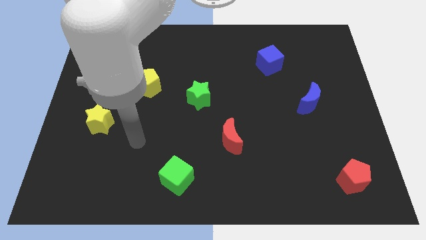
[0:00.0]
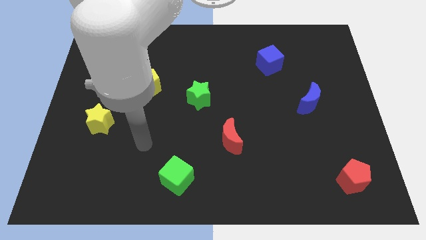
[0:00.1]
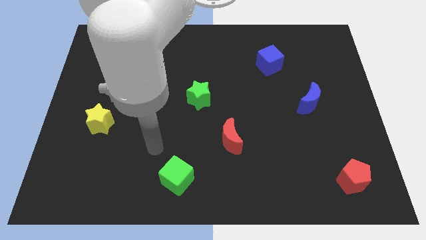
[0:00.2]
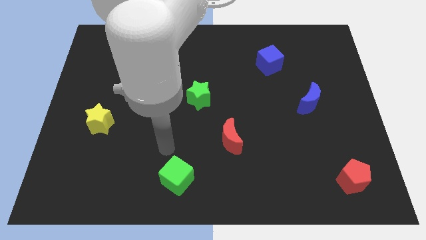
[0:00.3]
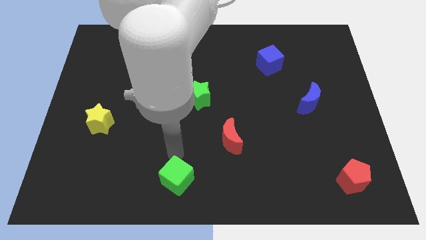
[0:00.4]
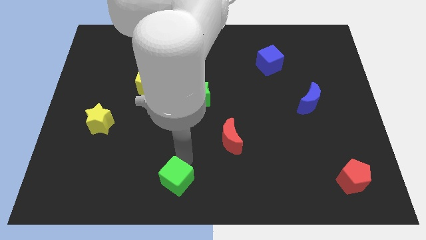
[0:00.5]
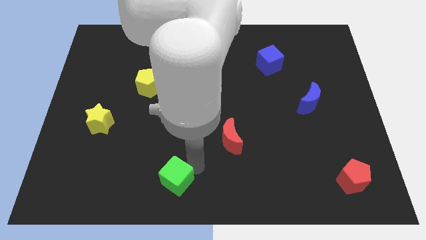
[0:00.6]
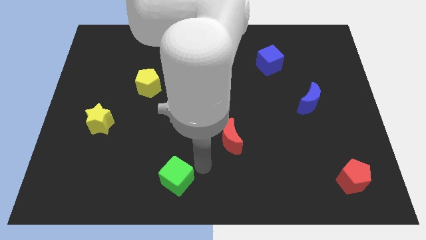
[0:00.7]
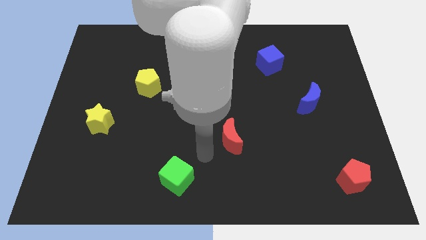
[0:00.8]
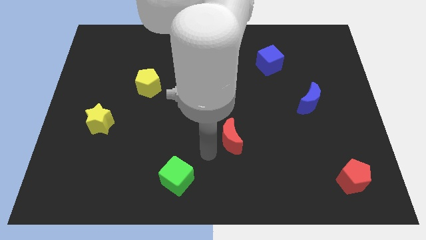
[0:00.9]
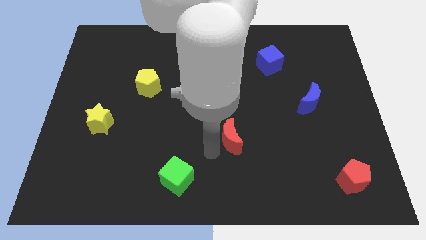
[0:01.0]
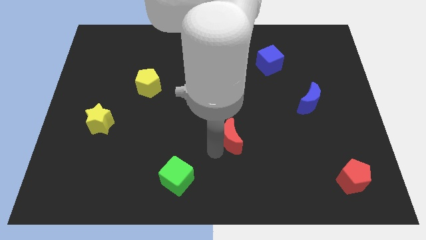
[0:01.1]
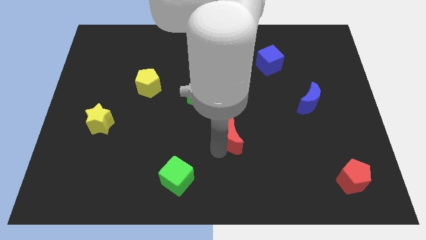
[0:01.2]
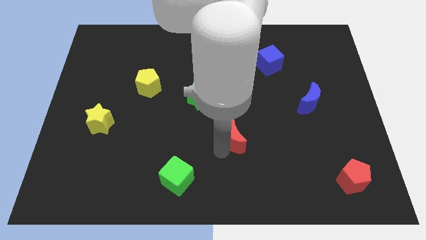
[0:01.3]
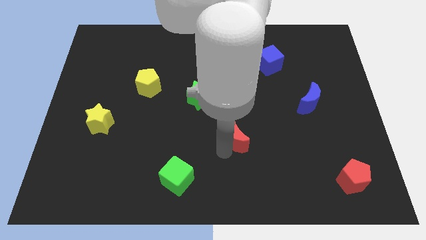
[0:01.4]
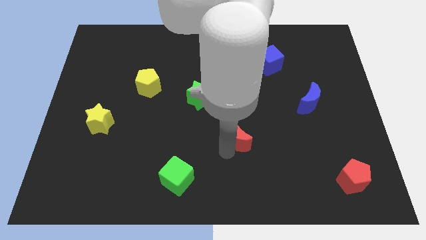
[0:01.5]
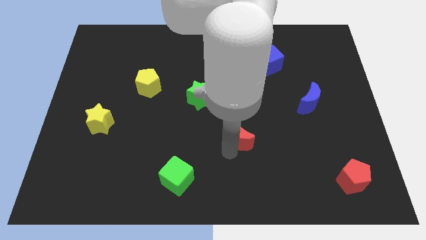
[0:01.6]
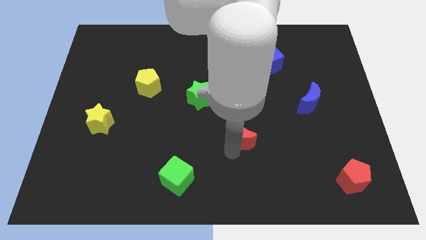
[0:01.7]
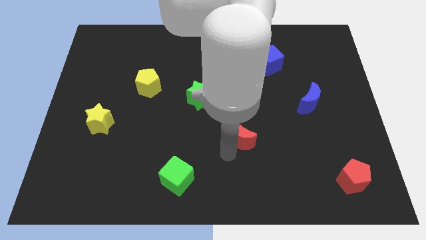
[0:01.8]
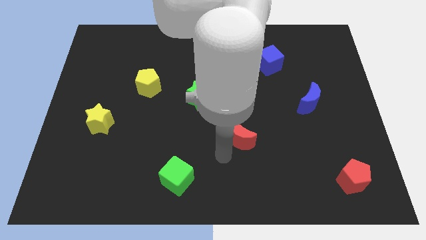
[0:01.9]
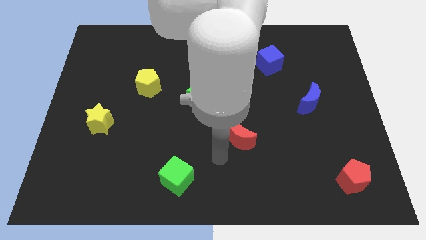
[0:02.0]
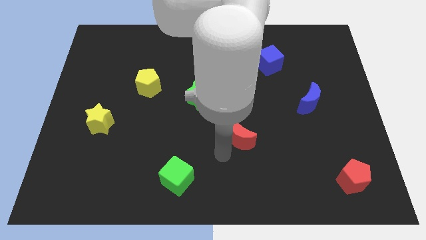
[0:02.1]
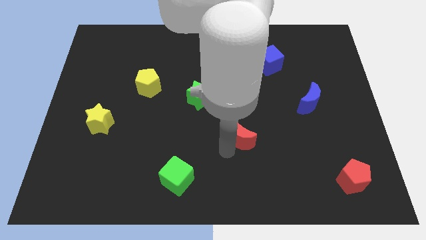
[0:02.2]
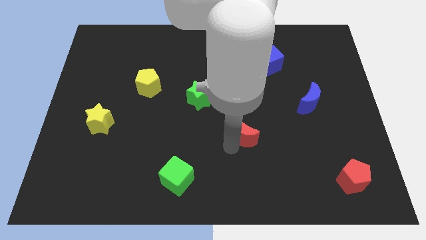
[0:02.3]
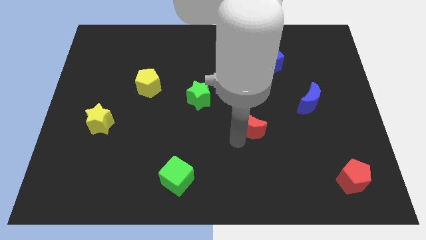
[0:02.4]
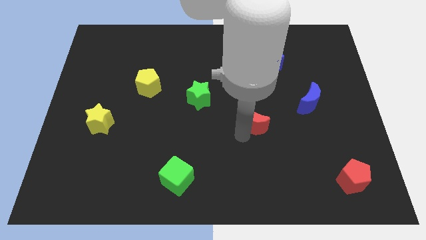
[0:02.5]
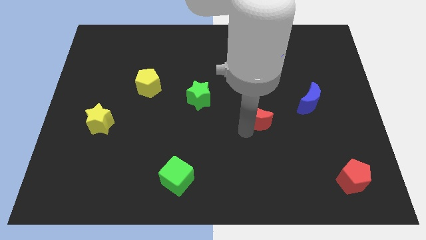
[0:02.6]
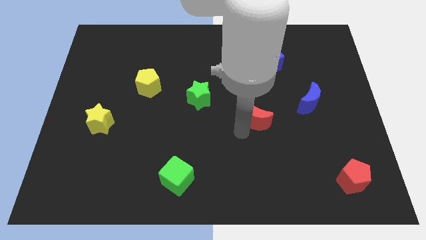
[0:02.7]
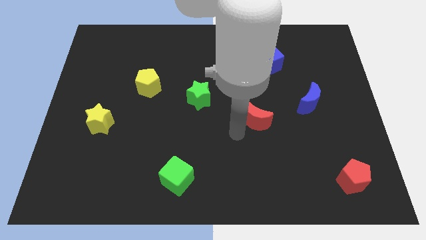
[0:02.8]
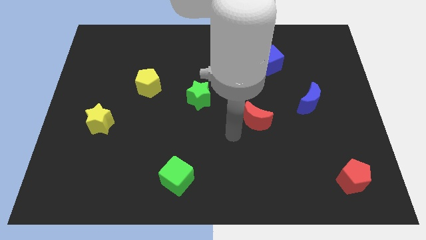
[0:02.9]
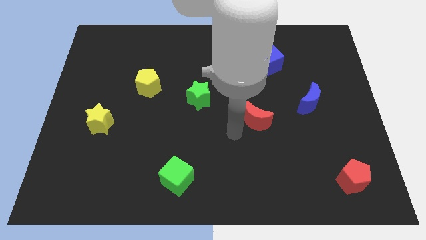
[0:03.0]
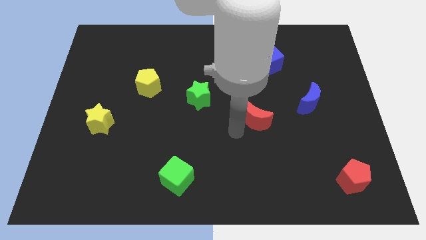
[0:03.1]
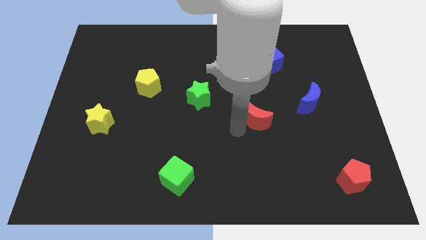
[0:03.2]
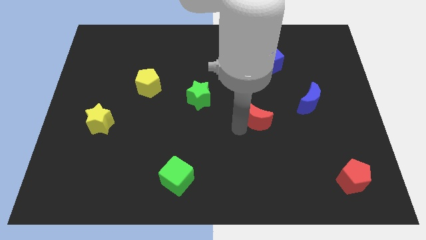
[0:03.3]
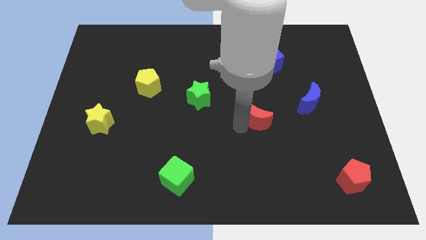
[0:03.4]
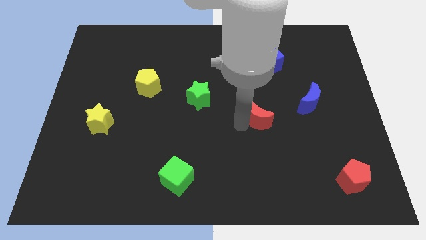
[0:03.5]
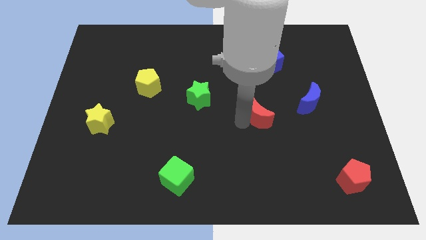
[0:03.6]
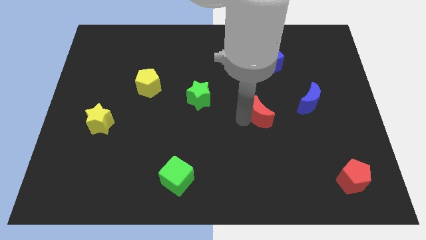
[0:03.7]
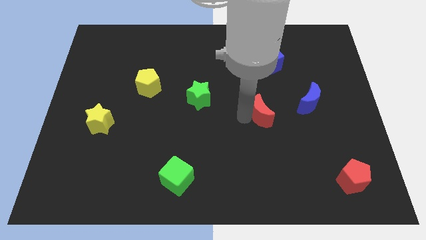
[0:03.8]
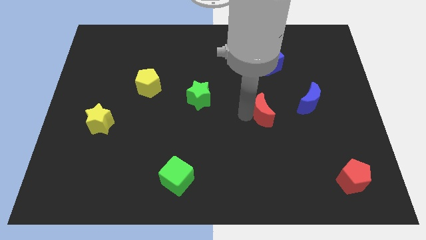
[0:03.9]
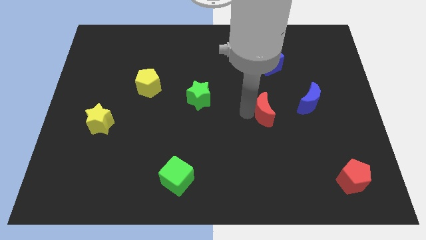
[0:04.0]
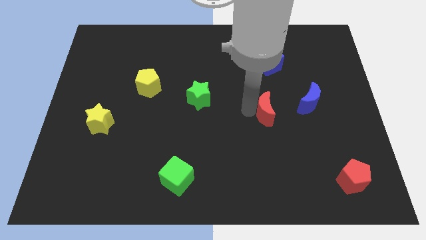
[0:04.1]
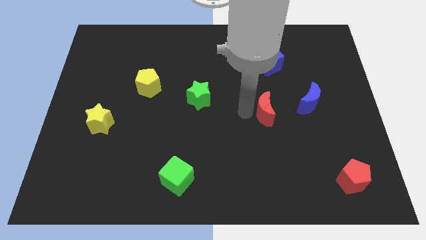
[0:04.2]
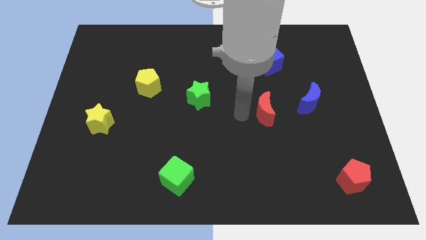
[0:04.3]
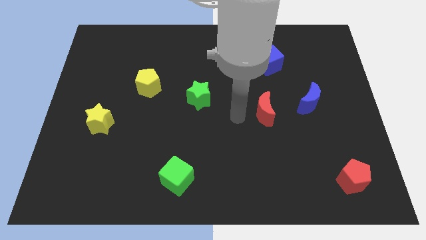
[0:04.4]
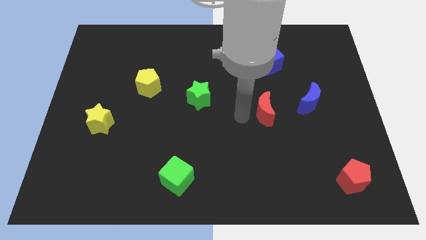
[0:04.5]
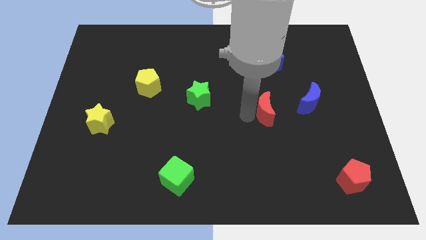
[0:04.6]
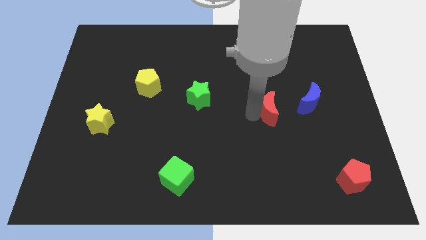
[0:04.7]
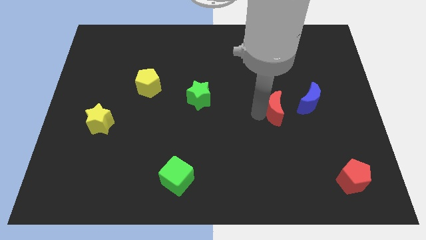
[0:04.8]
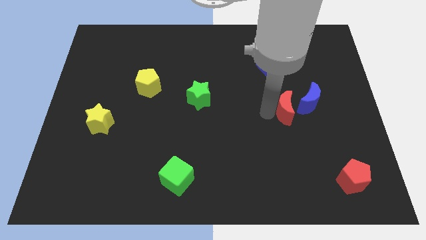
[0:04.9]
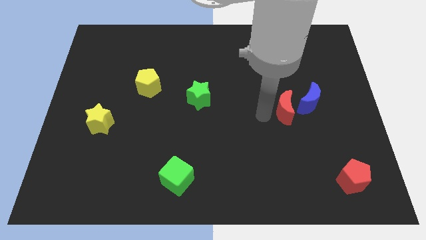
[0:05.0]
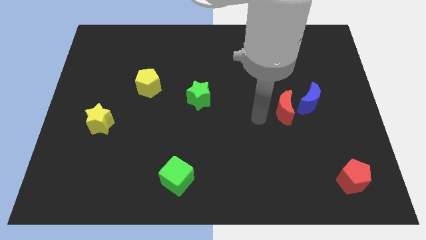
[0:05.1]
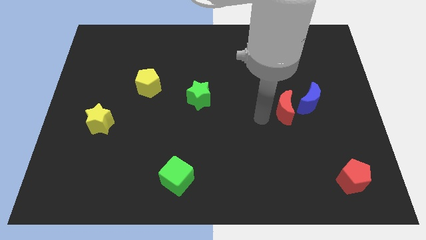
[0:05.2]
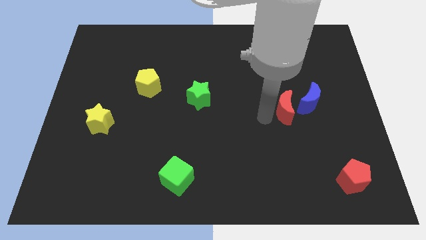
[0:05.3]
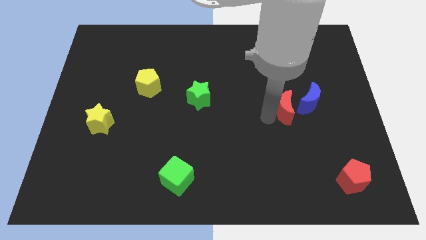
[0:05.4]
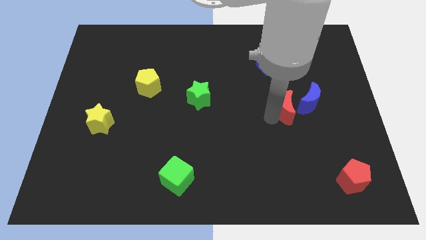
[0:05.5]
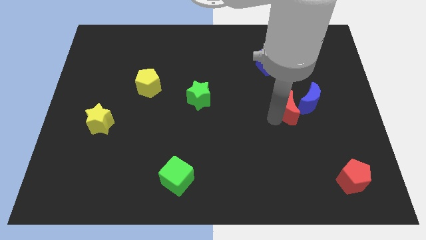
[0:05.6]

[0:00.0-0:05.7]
move the red moon towards the blue moon

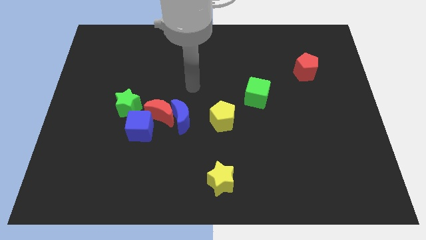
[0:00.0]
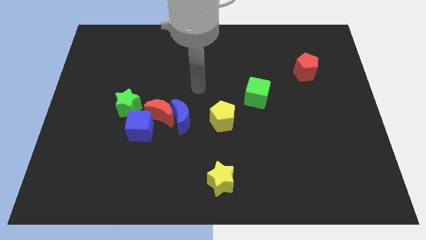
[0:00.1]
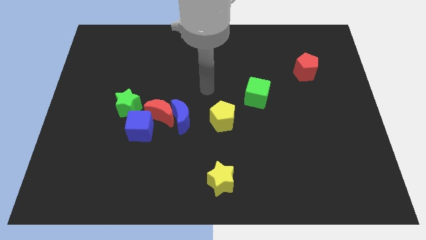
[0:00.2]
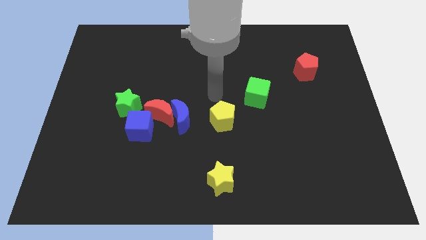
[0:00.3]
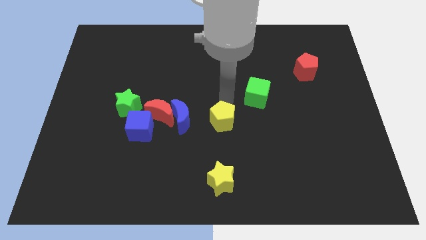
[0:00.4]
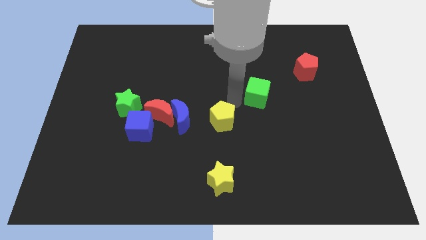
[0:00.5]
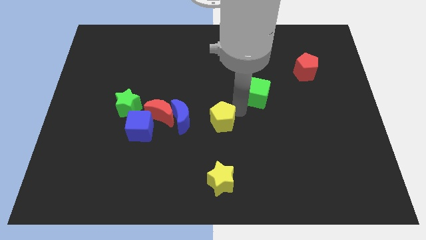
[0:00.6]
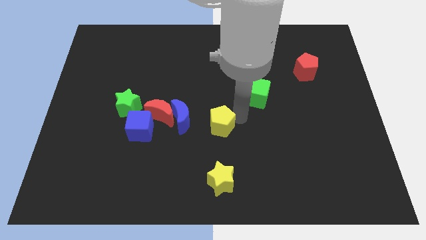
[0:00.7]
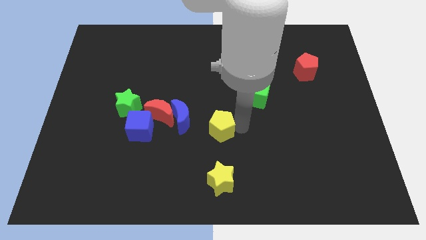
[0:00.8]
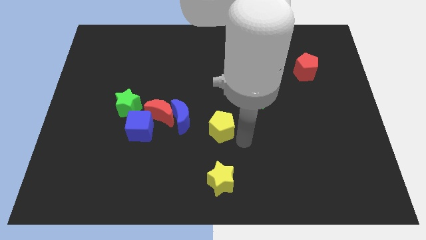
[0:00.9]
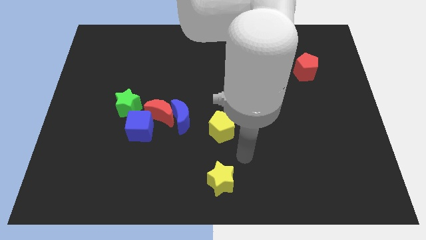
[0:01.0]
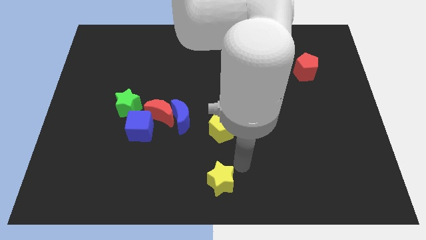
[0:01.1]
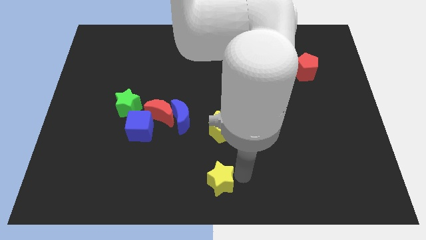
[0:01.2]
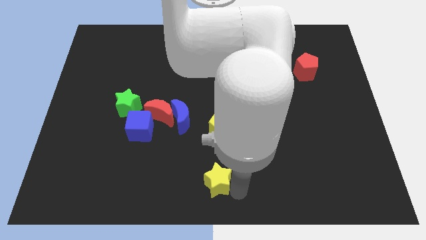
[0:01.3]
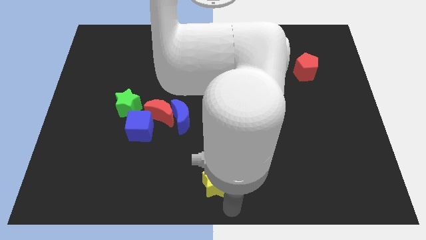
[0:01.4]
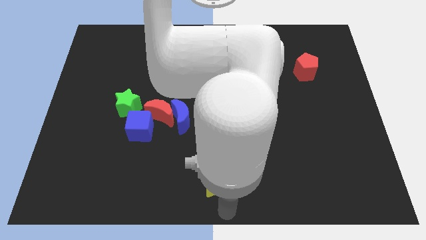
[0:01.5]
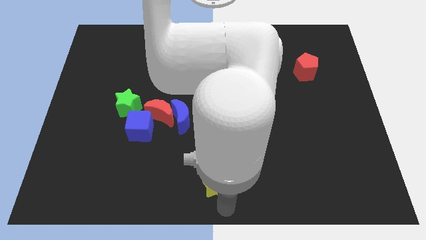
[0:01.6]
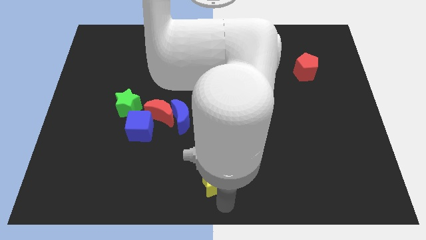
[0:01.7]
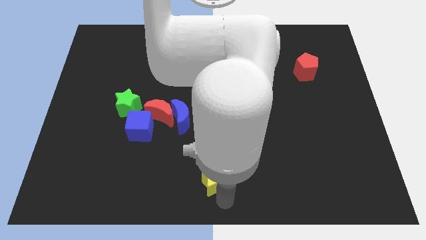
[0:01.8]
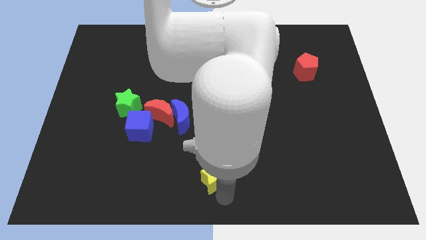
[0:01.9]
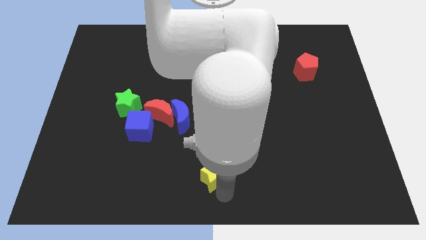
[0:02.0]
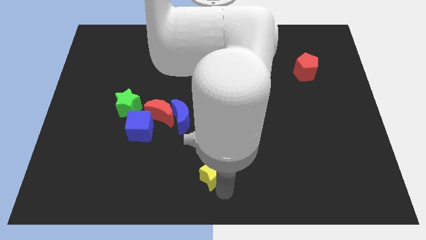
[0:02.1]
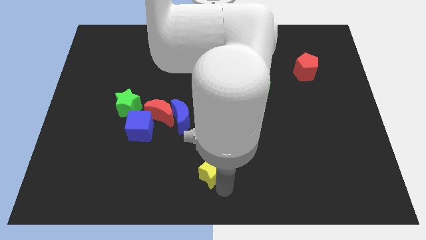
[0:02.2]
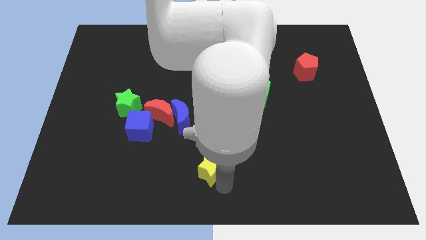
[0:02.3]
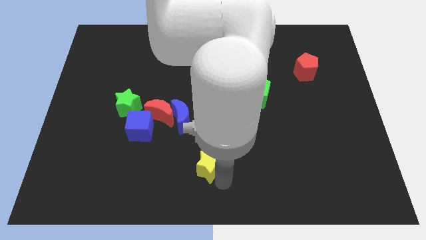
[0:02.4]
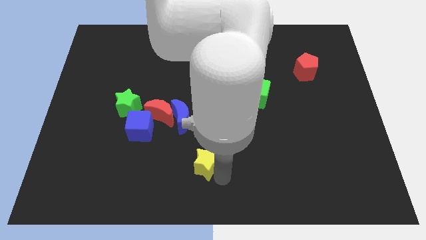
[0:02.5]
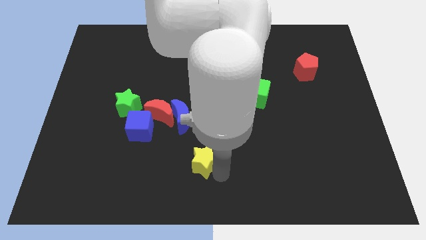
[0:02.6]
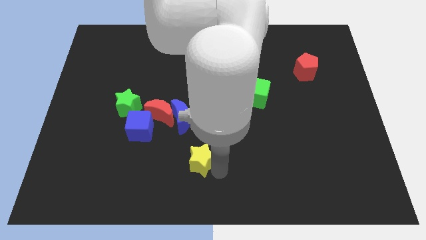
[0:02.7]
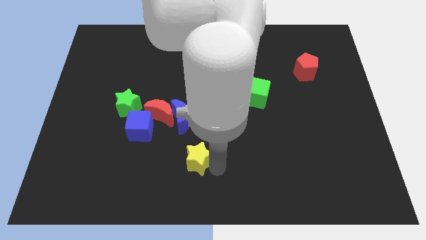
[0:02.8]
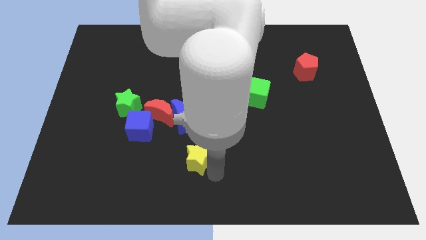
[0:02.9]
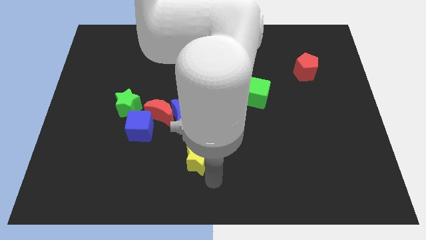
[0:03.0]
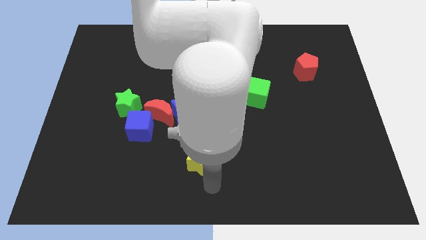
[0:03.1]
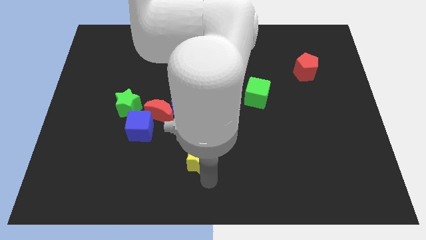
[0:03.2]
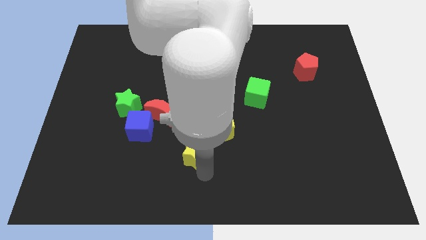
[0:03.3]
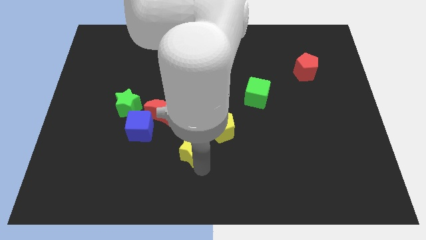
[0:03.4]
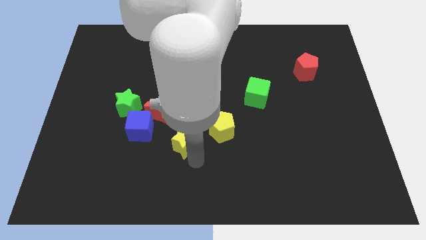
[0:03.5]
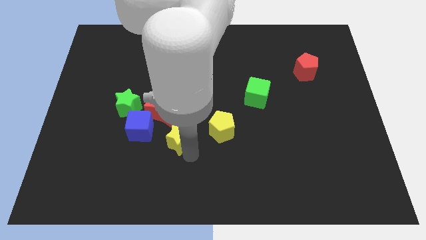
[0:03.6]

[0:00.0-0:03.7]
slide the yellow star next to the blue moon
